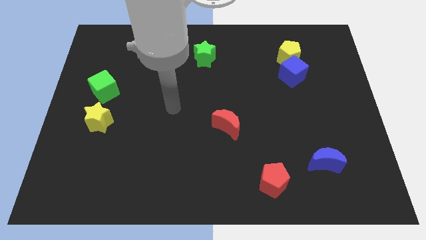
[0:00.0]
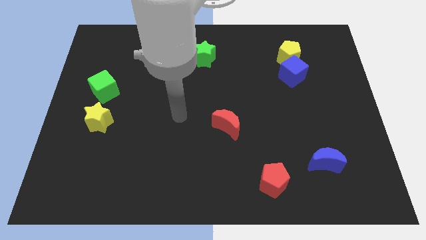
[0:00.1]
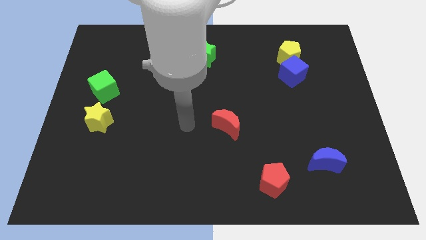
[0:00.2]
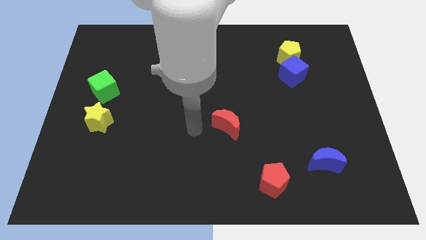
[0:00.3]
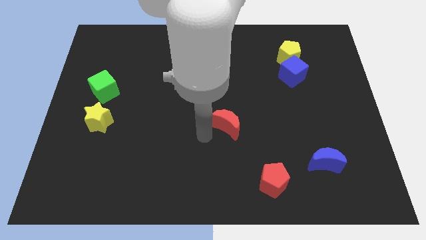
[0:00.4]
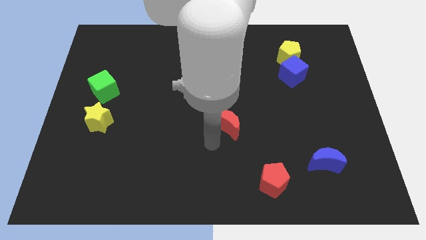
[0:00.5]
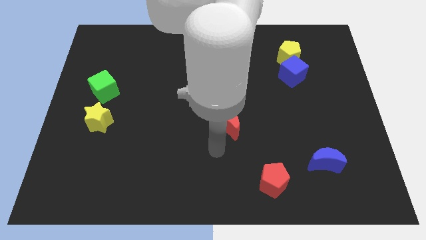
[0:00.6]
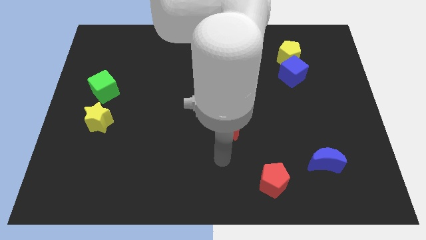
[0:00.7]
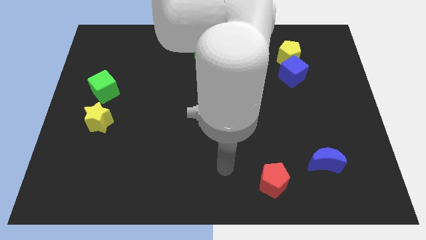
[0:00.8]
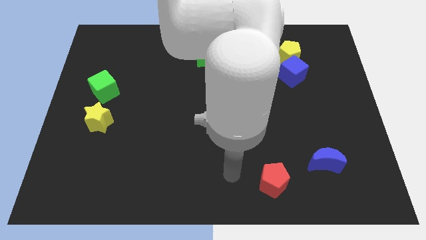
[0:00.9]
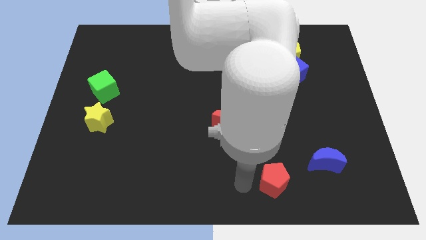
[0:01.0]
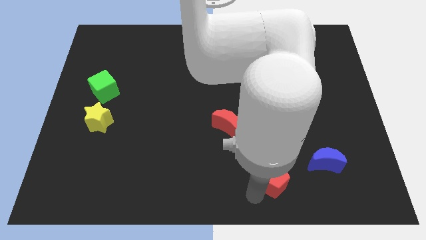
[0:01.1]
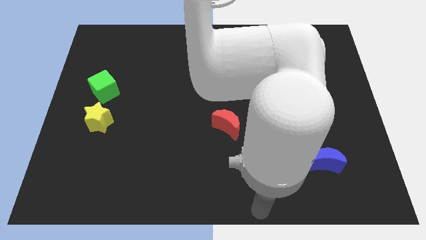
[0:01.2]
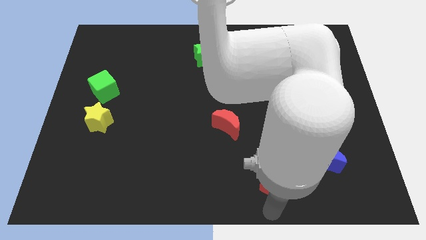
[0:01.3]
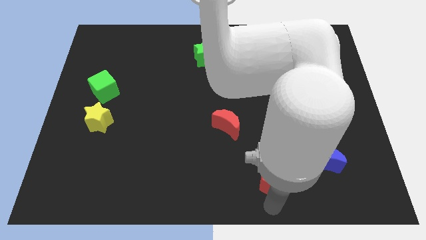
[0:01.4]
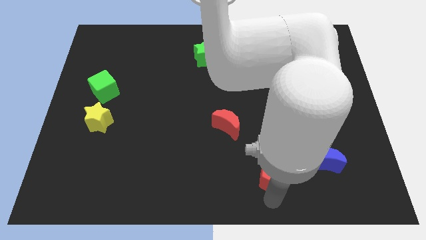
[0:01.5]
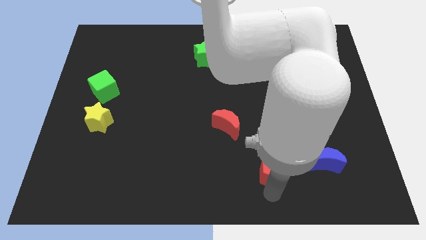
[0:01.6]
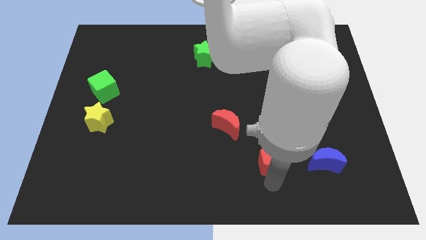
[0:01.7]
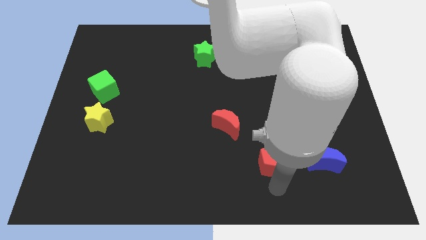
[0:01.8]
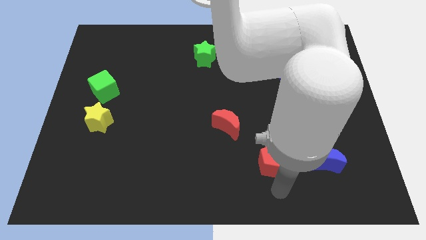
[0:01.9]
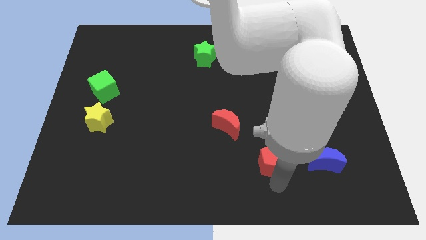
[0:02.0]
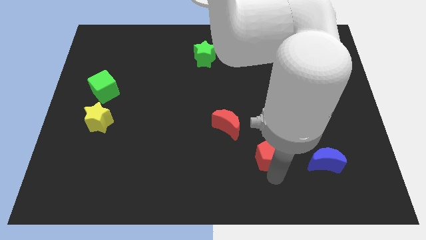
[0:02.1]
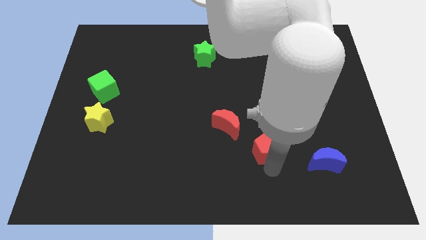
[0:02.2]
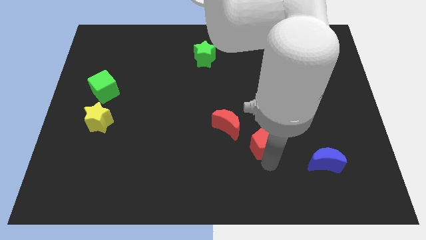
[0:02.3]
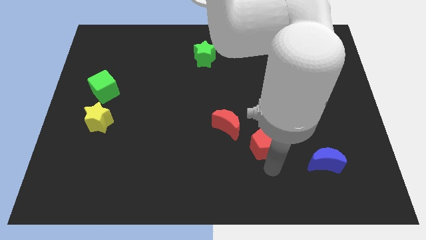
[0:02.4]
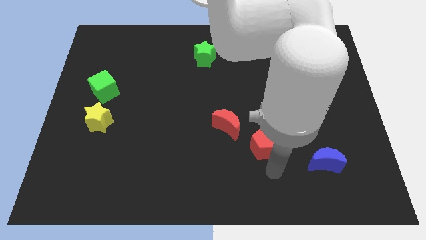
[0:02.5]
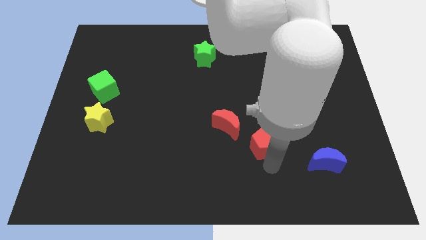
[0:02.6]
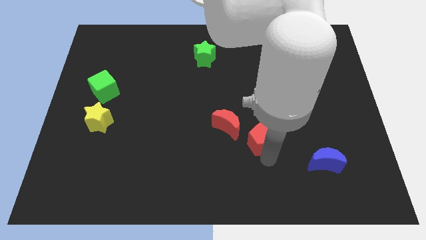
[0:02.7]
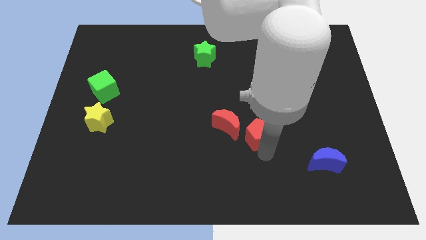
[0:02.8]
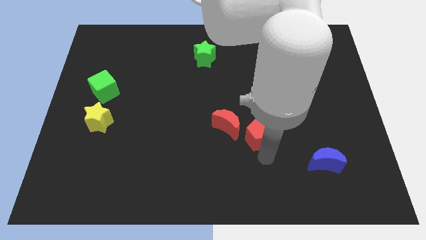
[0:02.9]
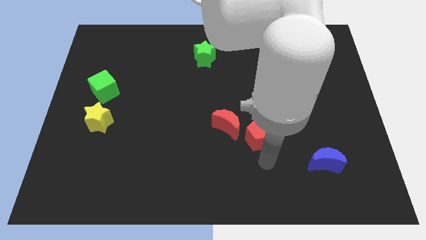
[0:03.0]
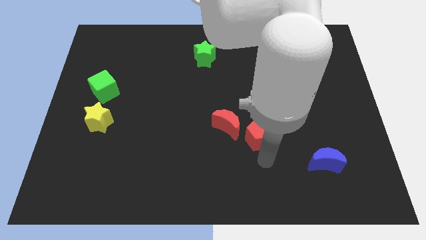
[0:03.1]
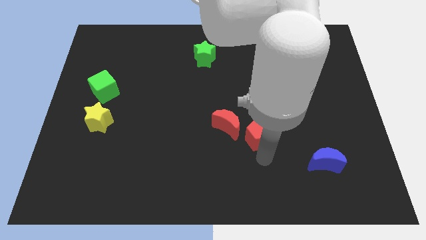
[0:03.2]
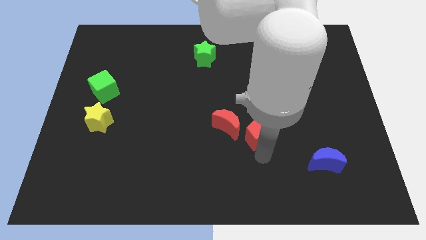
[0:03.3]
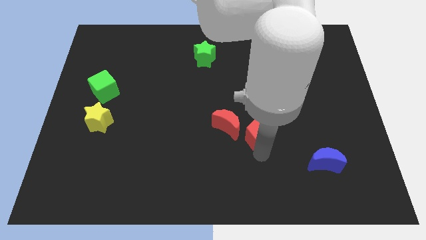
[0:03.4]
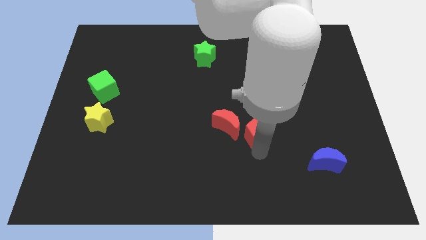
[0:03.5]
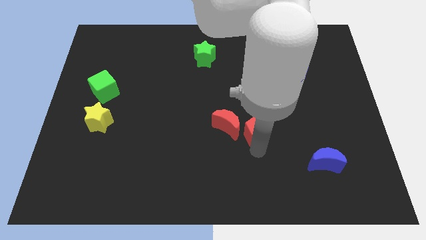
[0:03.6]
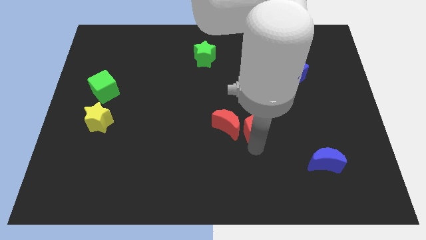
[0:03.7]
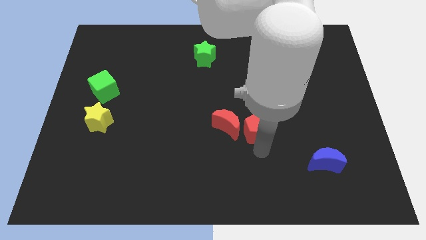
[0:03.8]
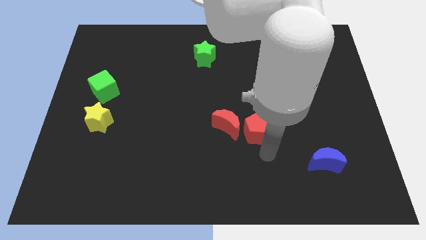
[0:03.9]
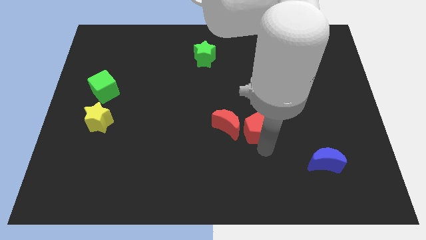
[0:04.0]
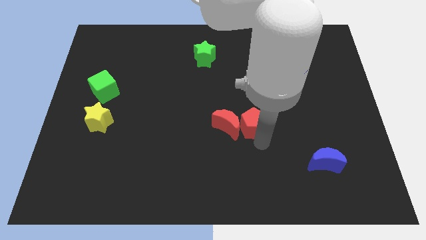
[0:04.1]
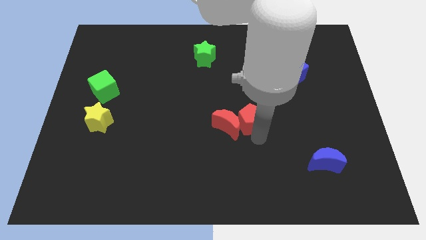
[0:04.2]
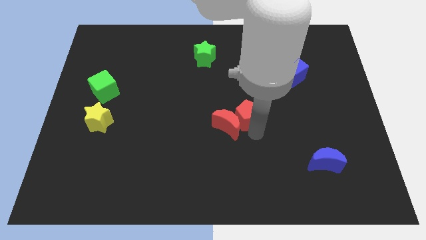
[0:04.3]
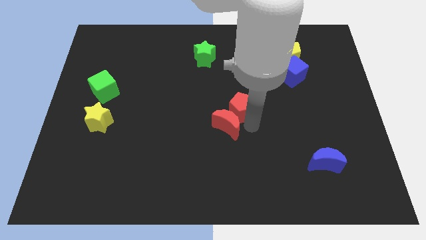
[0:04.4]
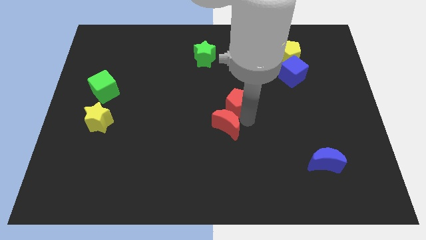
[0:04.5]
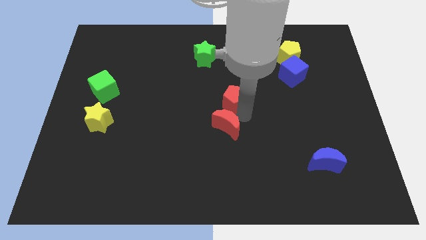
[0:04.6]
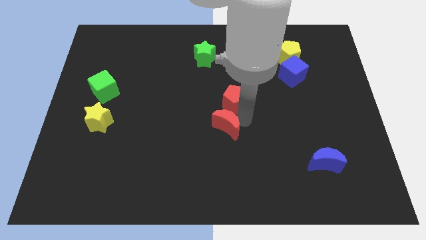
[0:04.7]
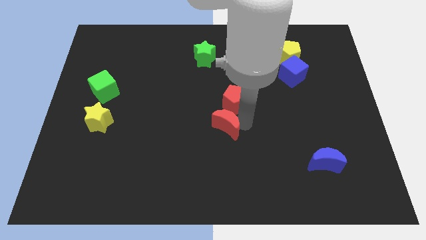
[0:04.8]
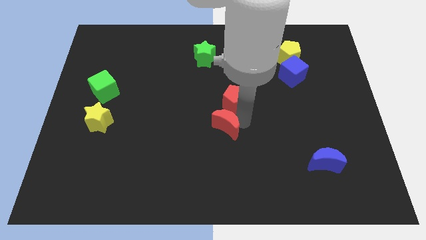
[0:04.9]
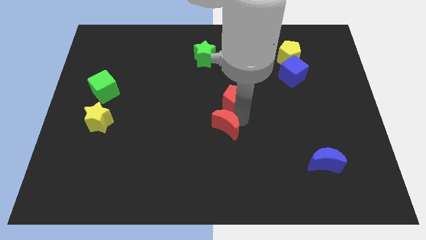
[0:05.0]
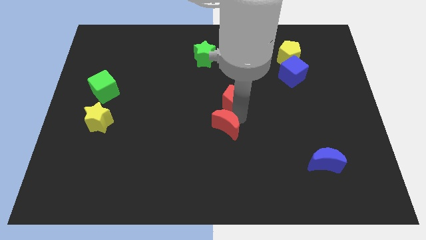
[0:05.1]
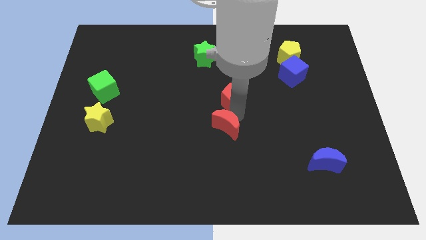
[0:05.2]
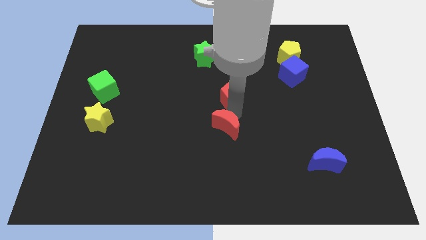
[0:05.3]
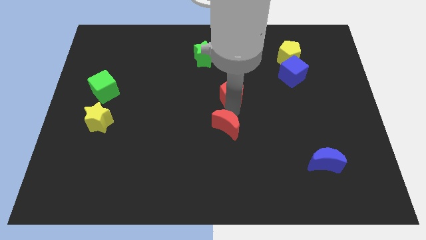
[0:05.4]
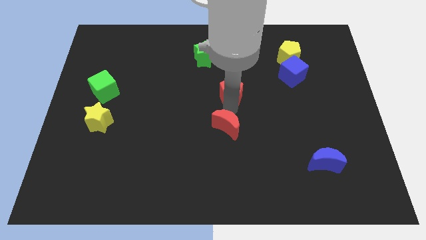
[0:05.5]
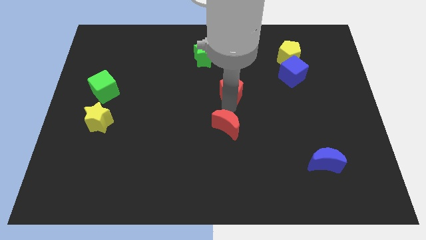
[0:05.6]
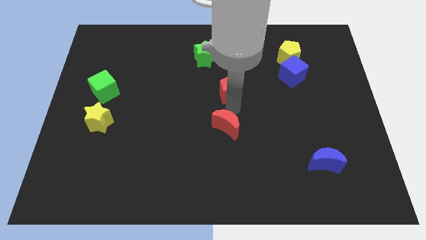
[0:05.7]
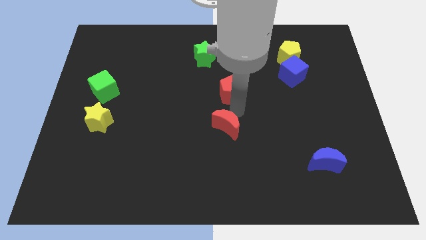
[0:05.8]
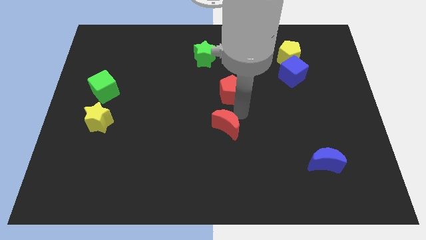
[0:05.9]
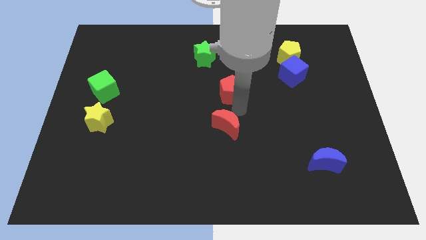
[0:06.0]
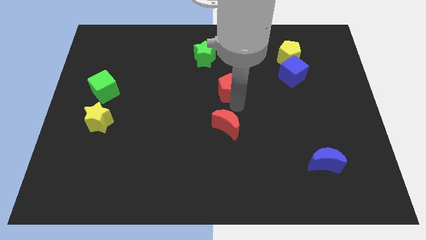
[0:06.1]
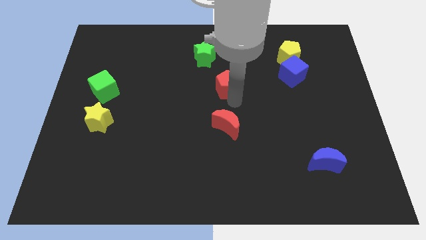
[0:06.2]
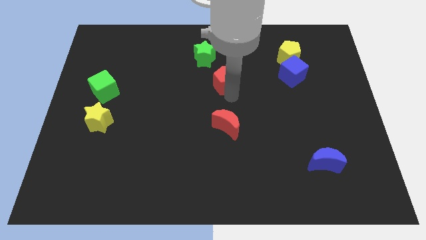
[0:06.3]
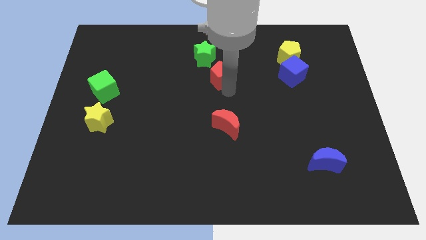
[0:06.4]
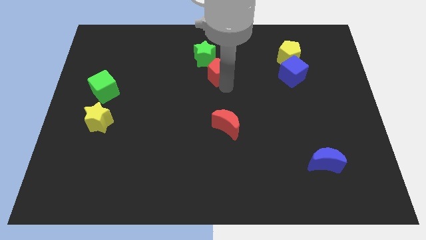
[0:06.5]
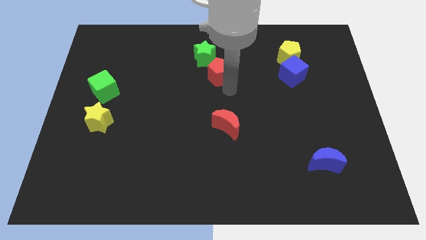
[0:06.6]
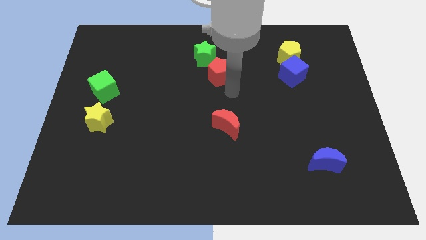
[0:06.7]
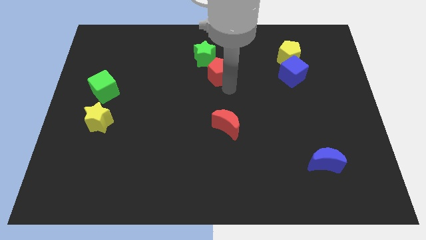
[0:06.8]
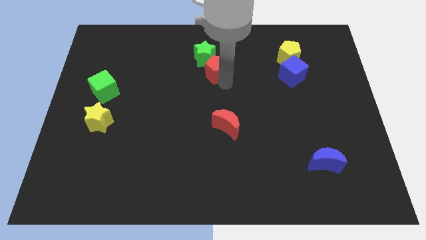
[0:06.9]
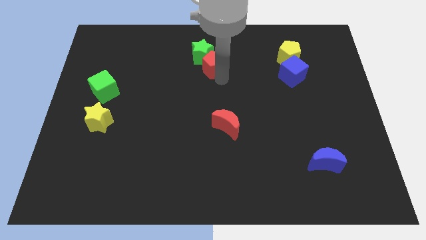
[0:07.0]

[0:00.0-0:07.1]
move the red pentagon towards the green star

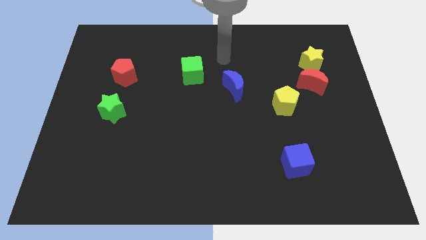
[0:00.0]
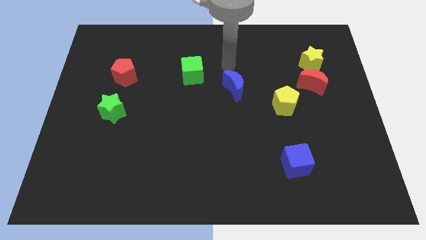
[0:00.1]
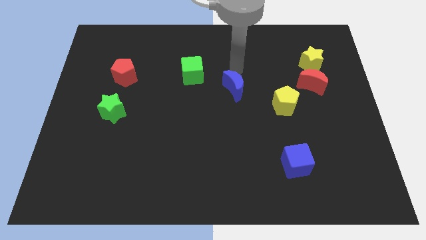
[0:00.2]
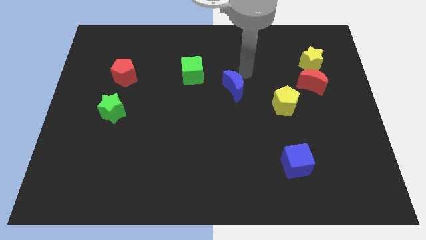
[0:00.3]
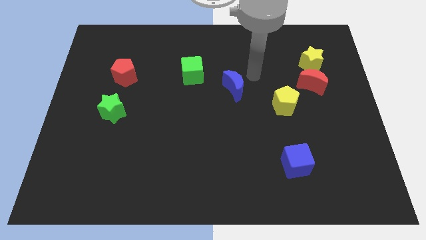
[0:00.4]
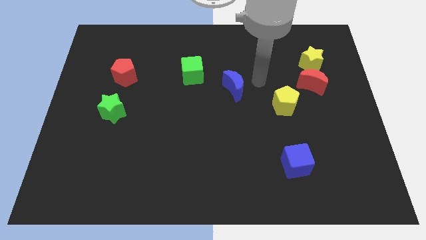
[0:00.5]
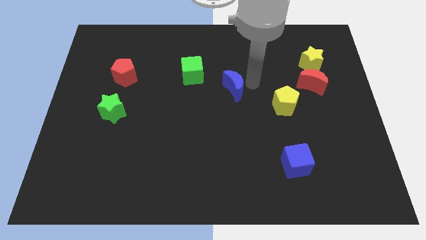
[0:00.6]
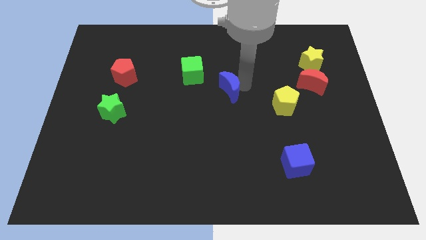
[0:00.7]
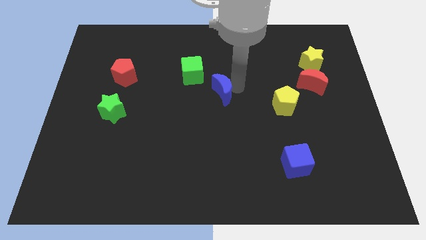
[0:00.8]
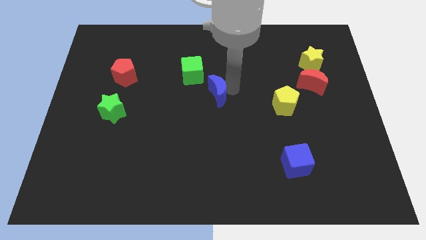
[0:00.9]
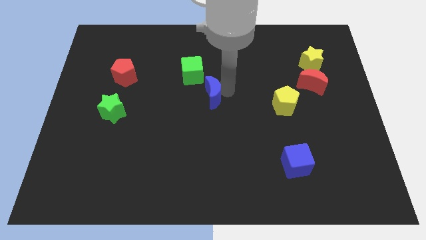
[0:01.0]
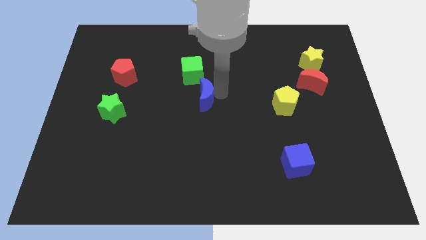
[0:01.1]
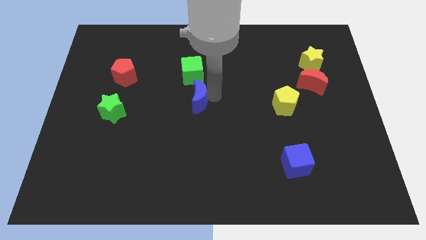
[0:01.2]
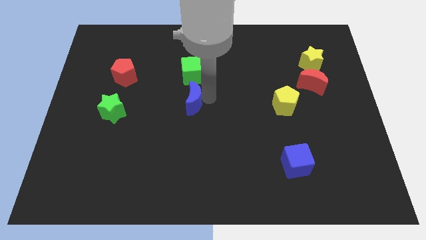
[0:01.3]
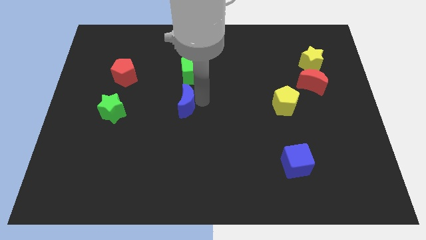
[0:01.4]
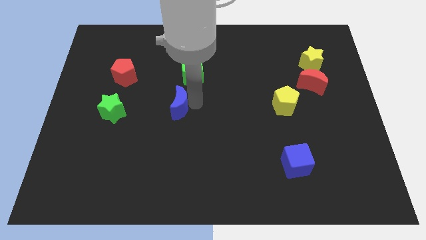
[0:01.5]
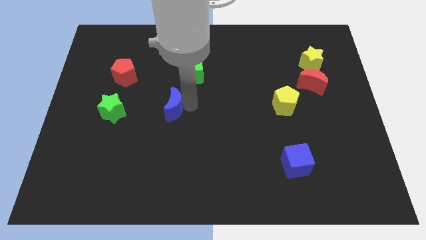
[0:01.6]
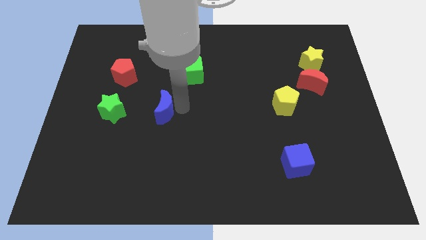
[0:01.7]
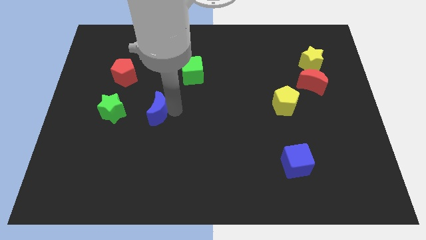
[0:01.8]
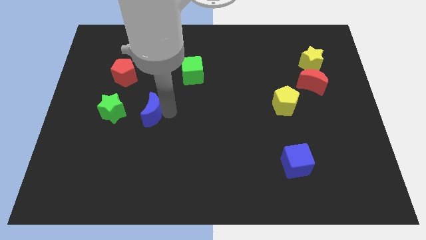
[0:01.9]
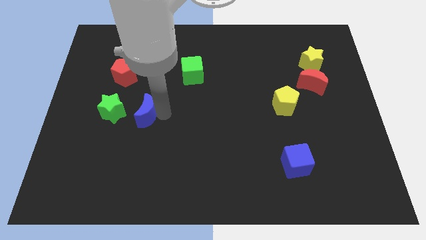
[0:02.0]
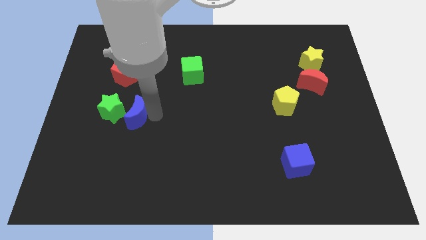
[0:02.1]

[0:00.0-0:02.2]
slide the blue moon close to the green star
